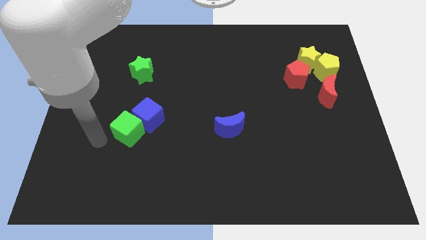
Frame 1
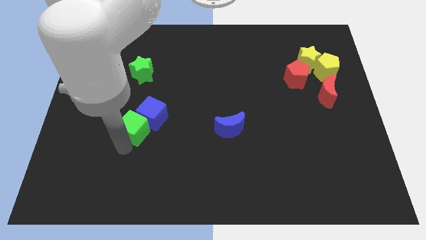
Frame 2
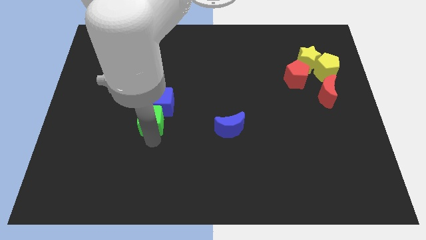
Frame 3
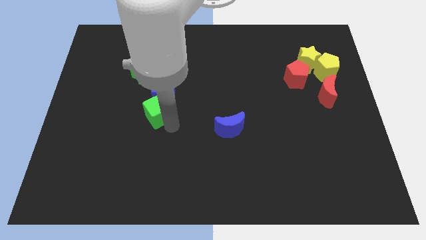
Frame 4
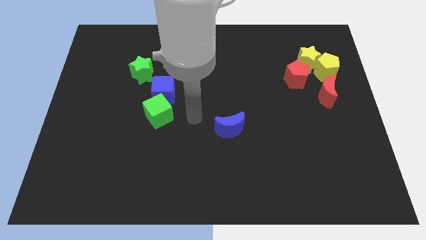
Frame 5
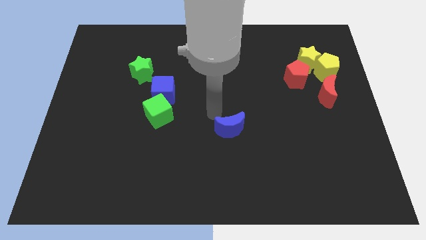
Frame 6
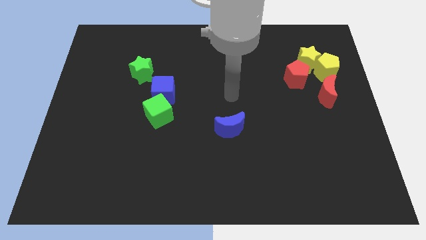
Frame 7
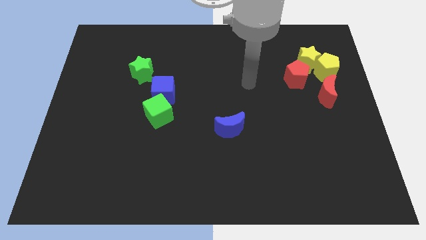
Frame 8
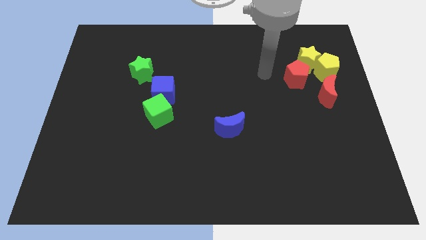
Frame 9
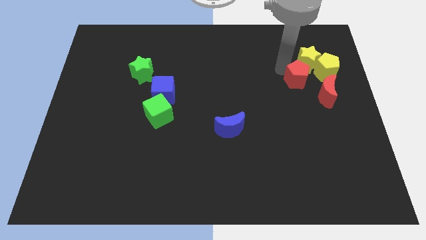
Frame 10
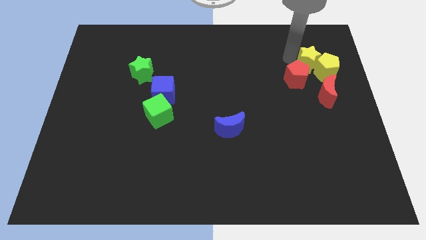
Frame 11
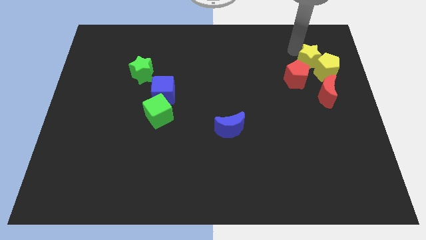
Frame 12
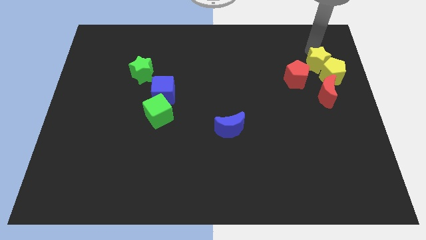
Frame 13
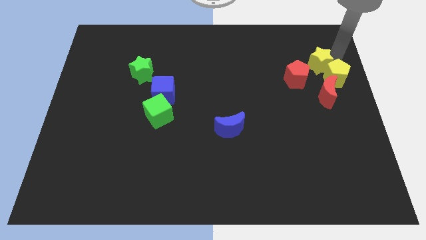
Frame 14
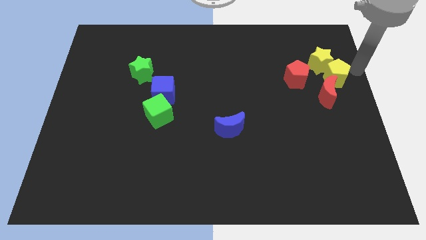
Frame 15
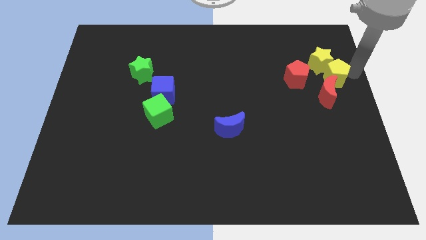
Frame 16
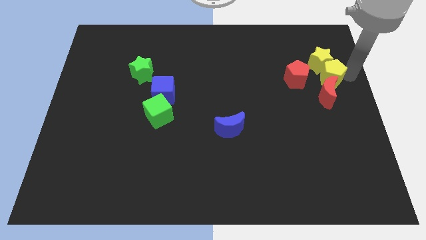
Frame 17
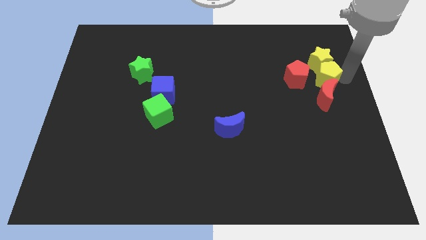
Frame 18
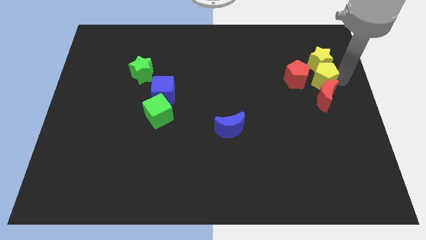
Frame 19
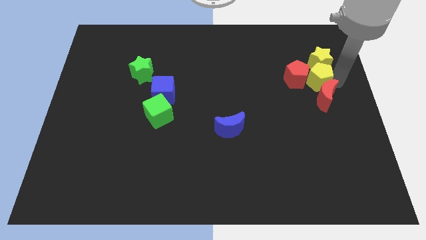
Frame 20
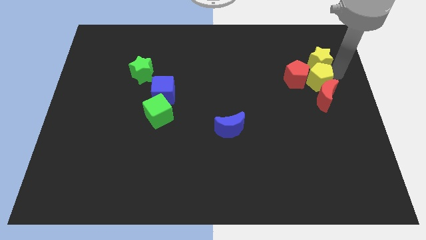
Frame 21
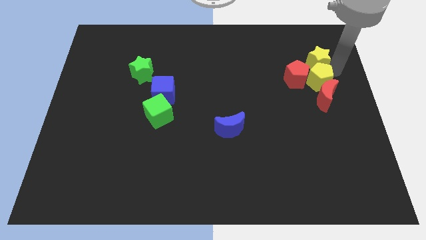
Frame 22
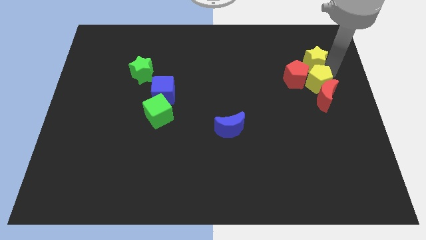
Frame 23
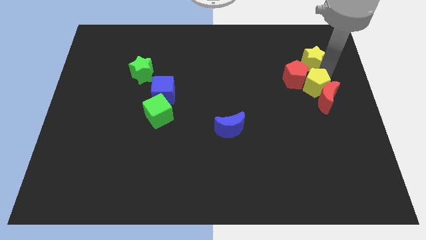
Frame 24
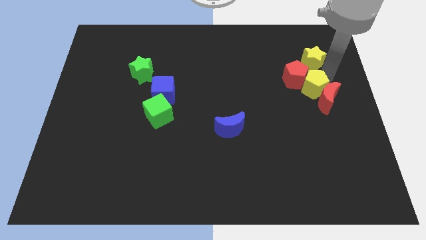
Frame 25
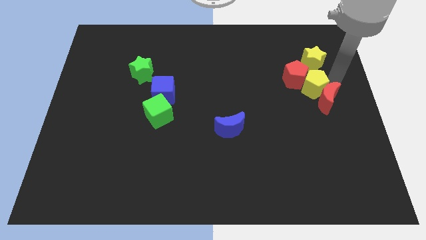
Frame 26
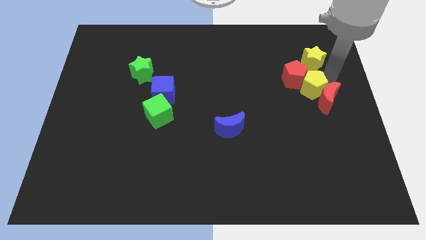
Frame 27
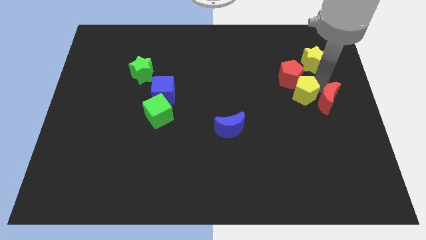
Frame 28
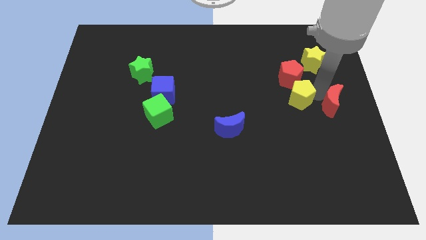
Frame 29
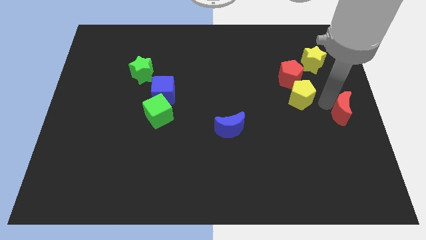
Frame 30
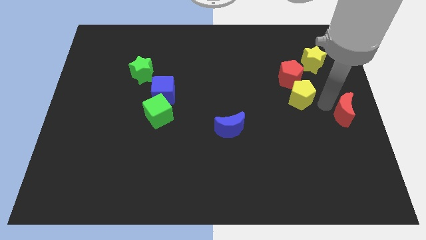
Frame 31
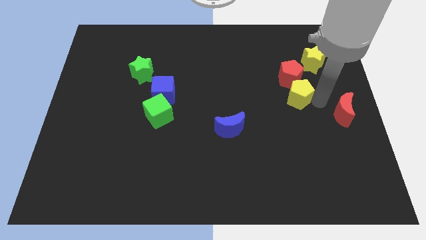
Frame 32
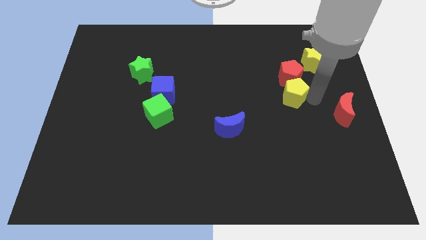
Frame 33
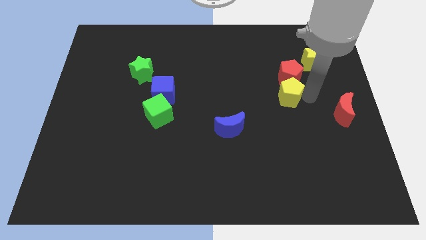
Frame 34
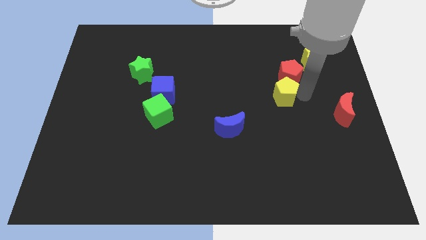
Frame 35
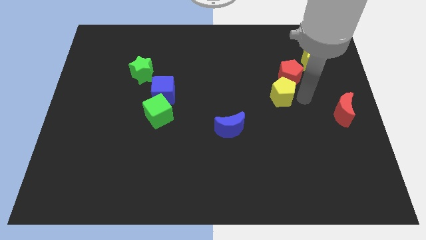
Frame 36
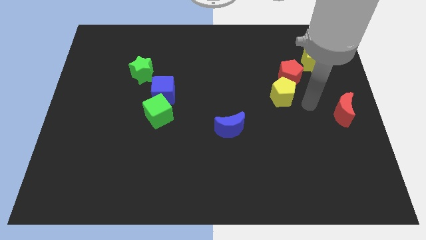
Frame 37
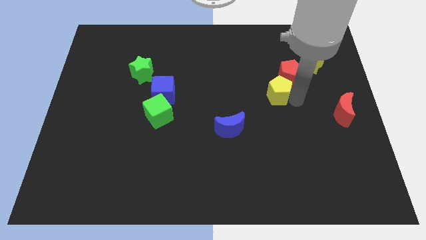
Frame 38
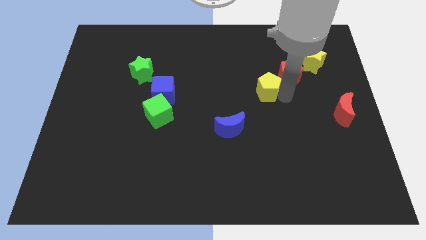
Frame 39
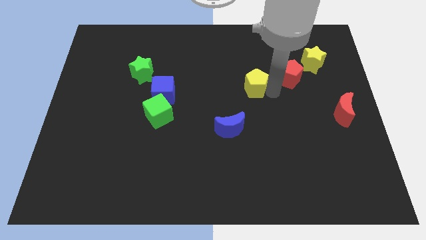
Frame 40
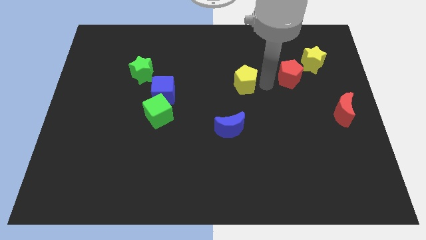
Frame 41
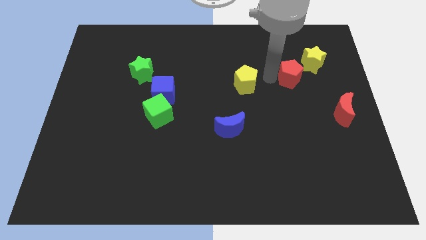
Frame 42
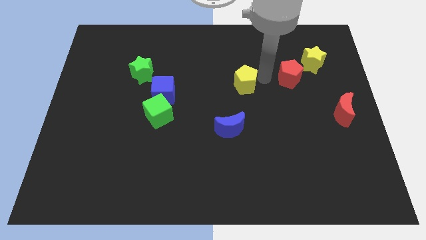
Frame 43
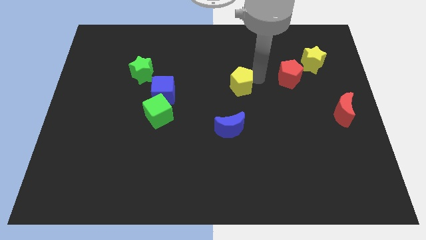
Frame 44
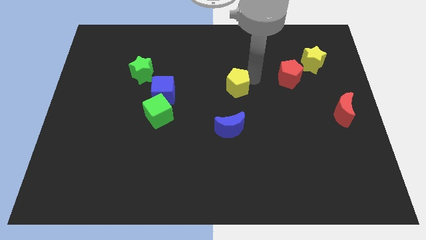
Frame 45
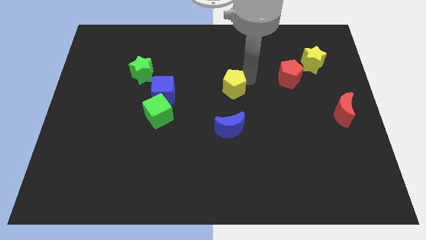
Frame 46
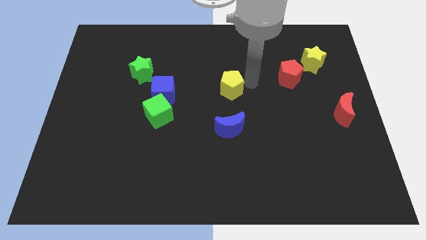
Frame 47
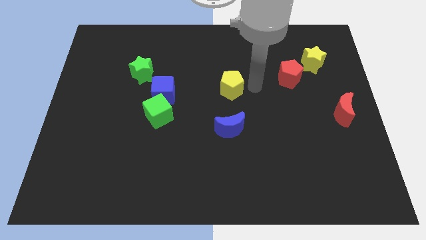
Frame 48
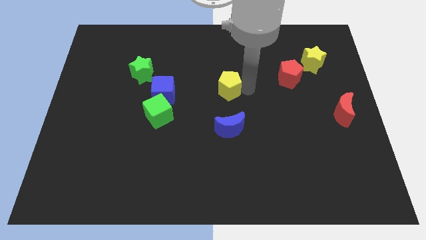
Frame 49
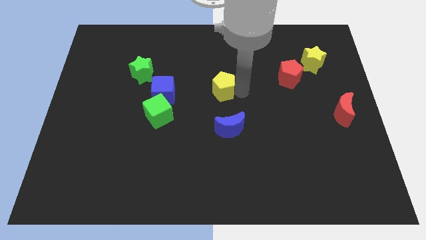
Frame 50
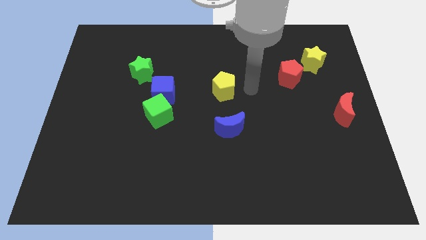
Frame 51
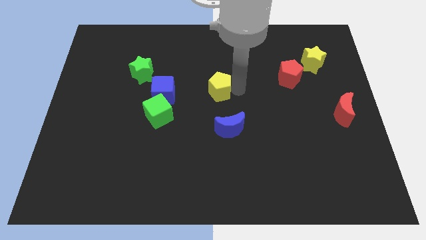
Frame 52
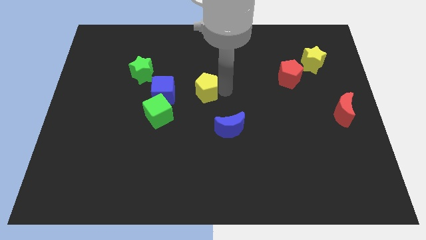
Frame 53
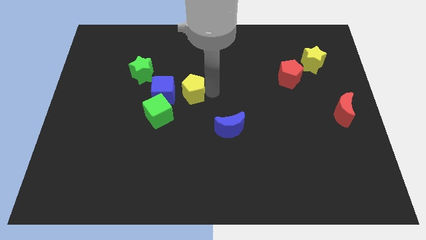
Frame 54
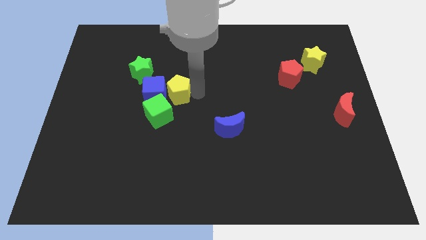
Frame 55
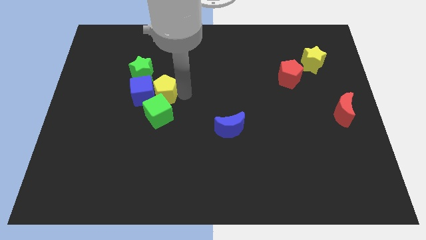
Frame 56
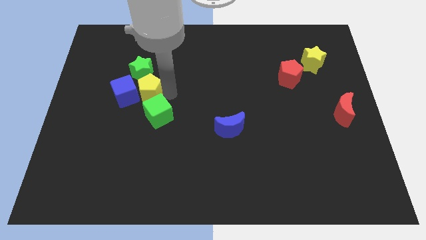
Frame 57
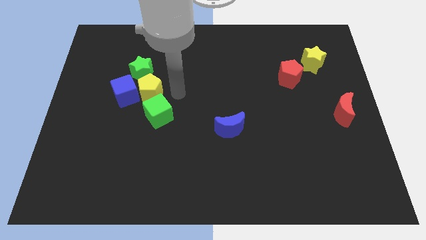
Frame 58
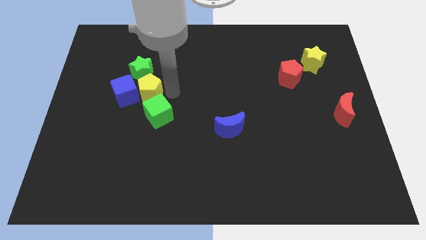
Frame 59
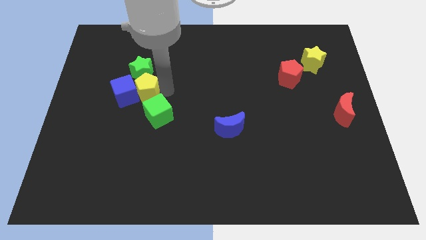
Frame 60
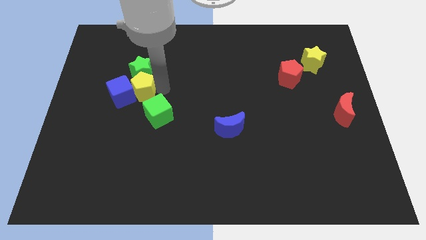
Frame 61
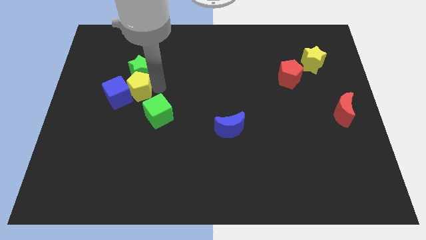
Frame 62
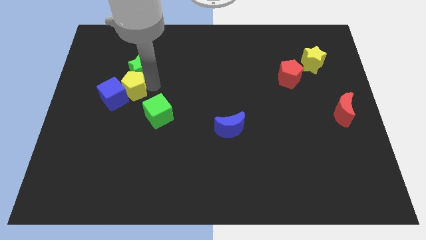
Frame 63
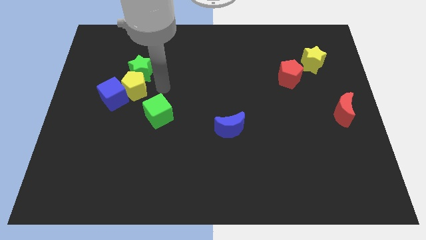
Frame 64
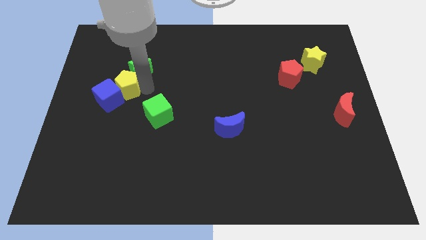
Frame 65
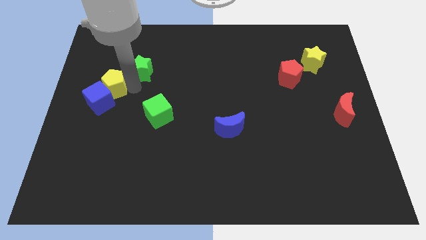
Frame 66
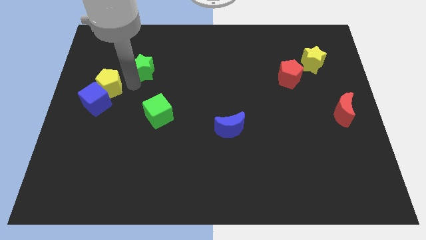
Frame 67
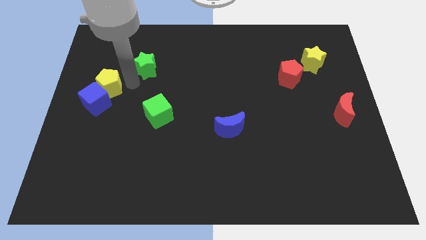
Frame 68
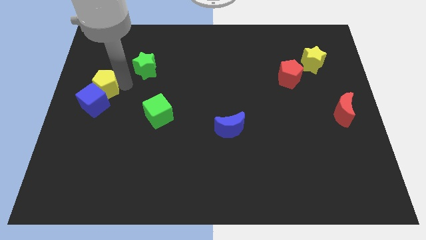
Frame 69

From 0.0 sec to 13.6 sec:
move the yellow pentagon to the left side

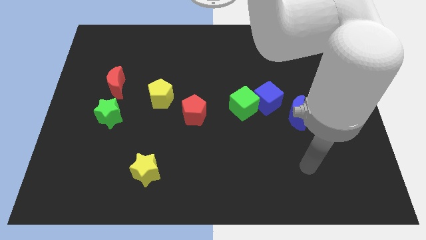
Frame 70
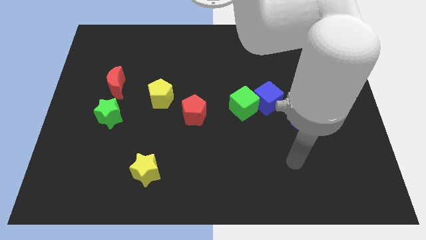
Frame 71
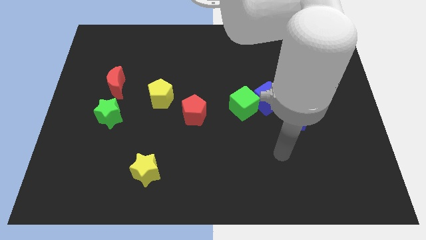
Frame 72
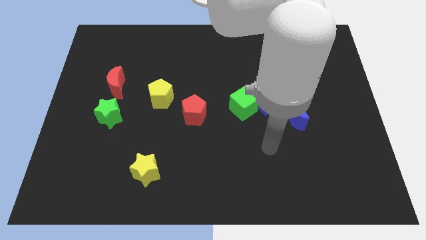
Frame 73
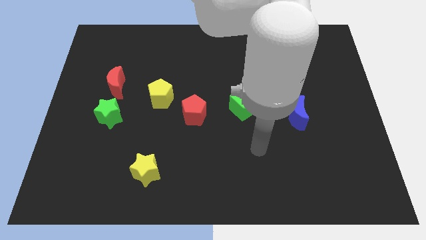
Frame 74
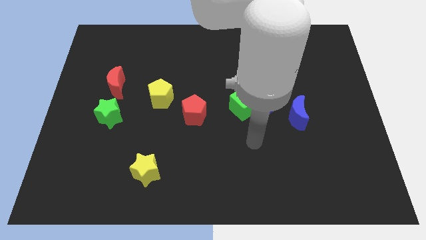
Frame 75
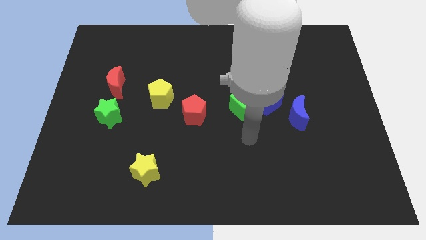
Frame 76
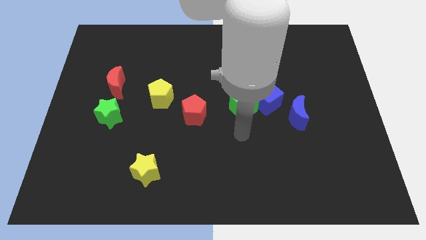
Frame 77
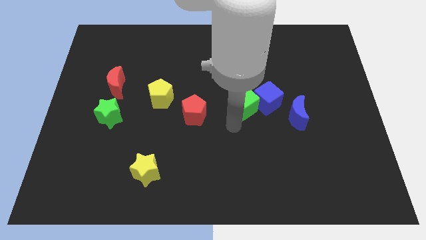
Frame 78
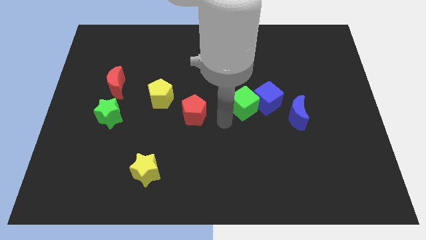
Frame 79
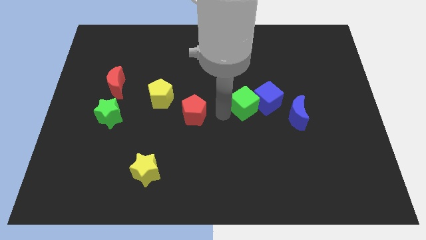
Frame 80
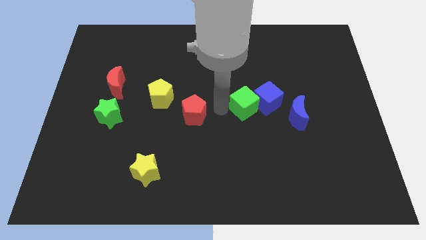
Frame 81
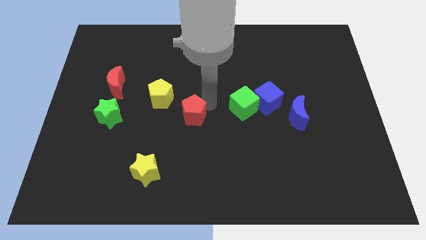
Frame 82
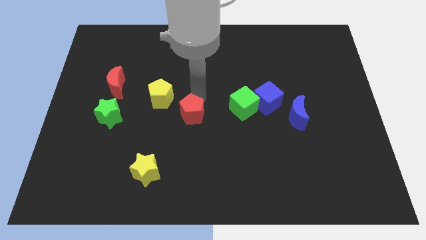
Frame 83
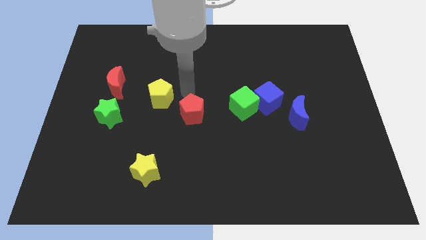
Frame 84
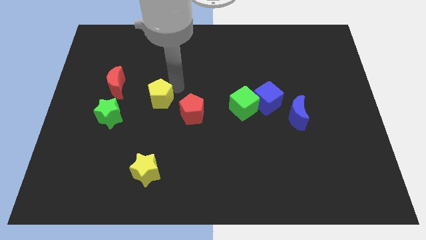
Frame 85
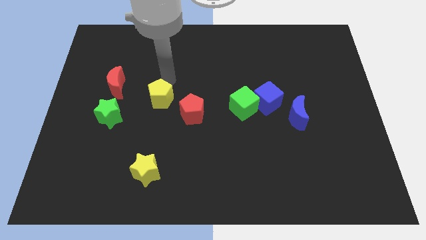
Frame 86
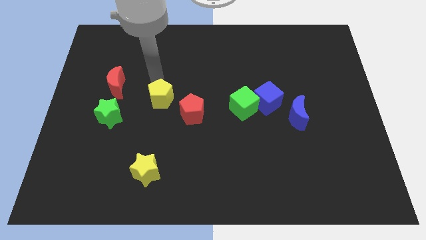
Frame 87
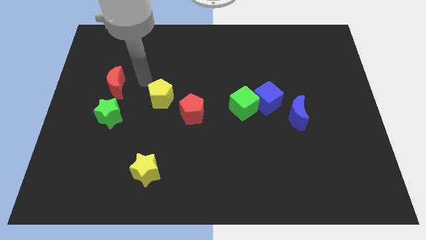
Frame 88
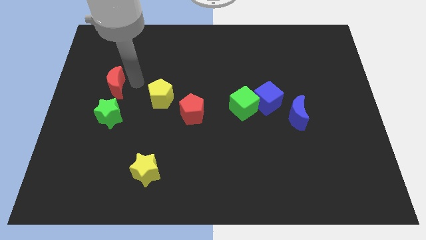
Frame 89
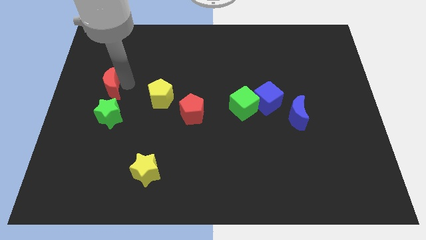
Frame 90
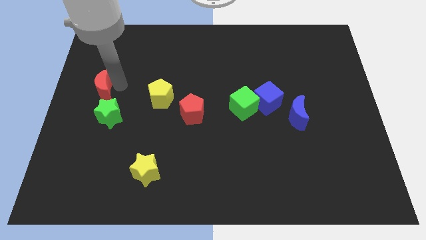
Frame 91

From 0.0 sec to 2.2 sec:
push the red moon to the left side of the board
